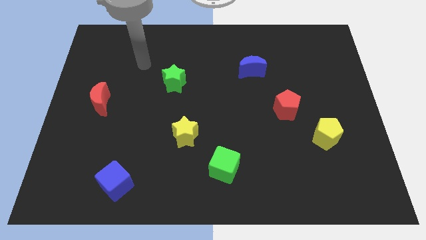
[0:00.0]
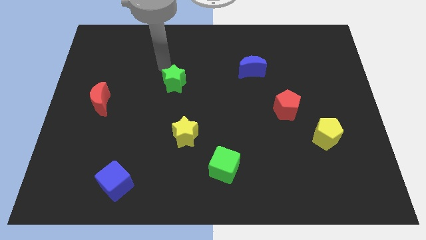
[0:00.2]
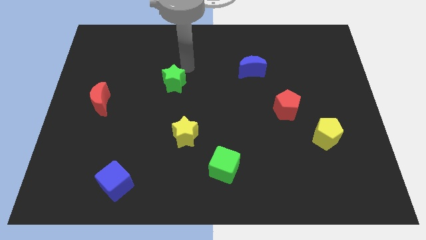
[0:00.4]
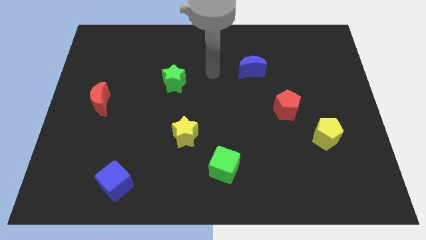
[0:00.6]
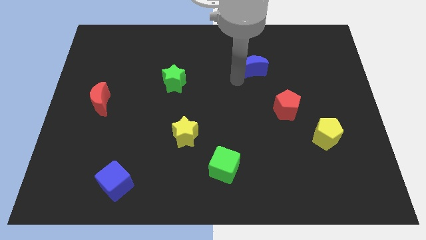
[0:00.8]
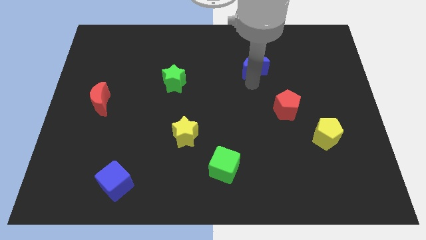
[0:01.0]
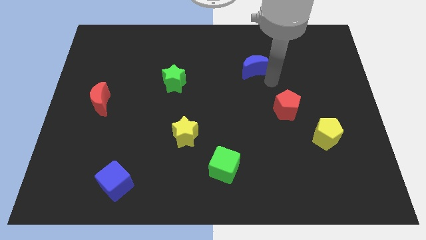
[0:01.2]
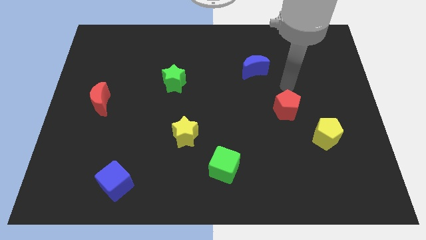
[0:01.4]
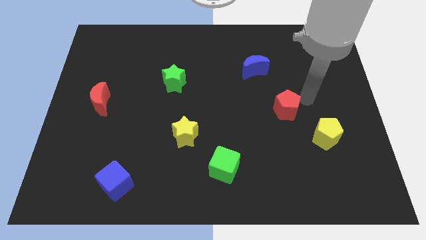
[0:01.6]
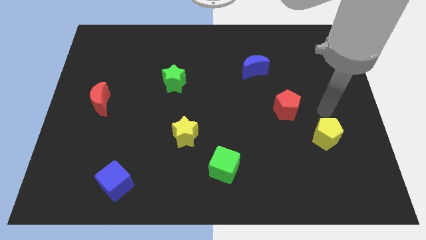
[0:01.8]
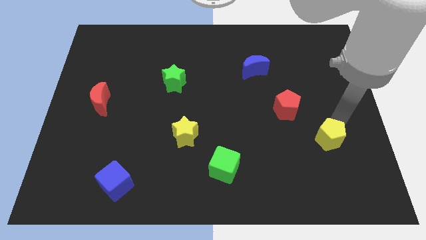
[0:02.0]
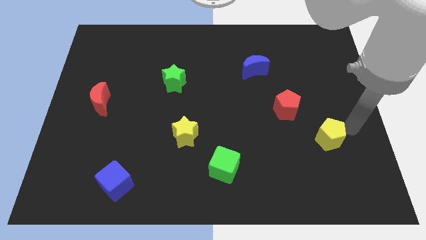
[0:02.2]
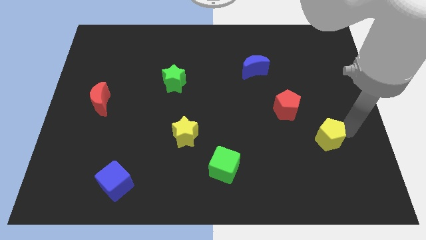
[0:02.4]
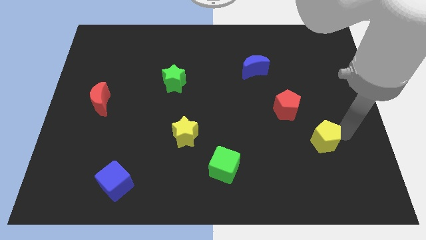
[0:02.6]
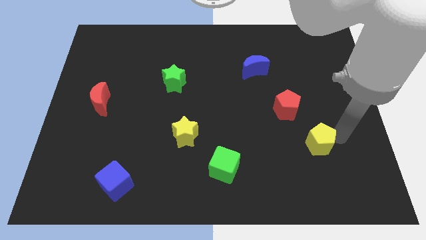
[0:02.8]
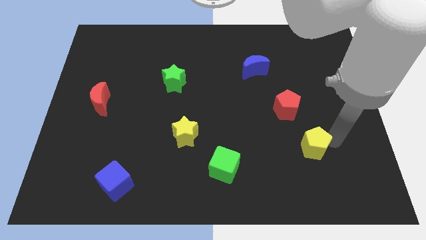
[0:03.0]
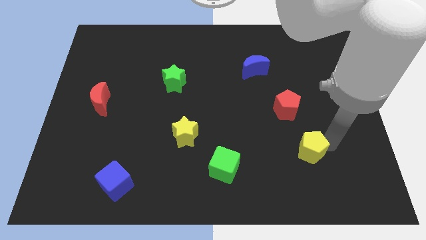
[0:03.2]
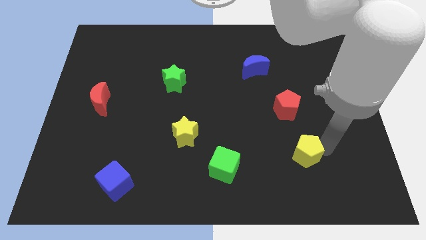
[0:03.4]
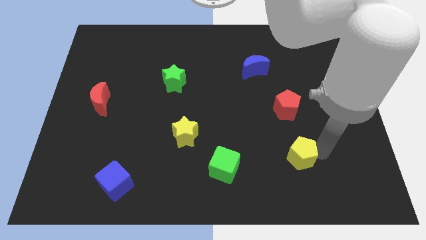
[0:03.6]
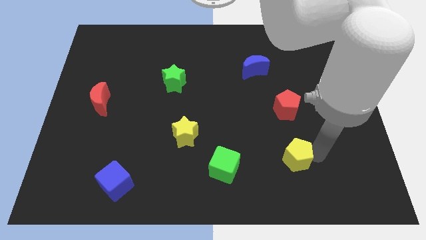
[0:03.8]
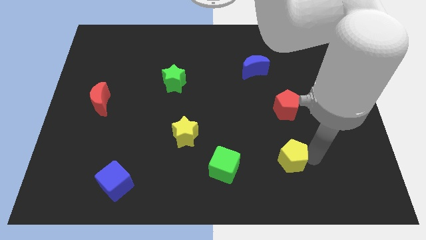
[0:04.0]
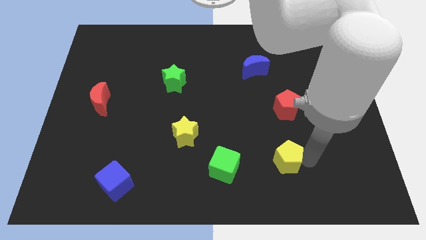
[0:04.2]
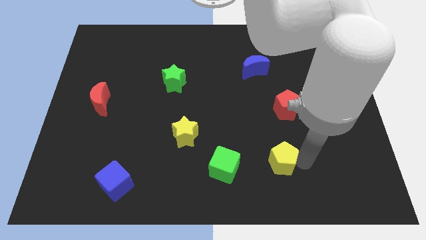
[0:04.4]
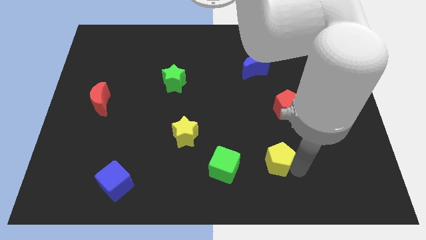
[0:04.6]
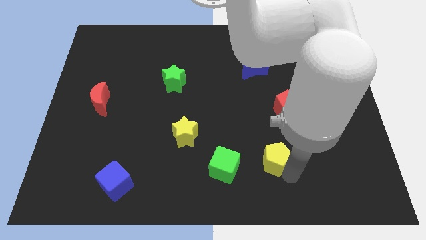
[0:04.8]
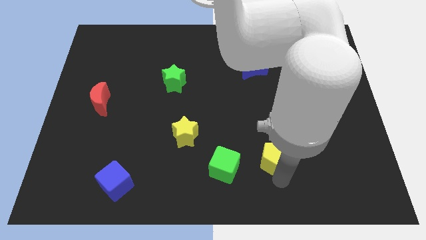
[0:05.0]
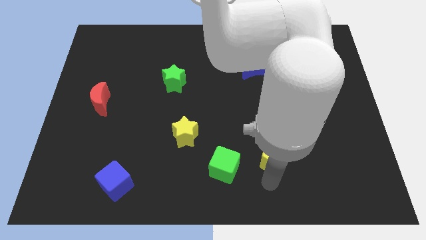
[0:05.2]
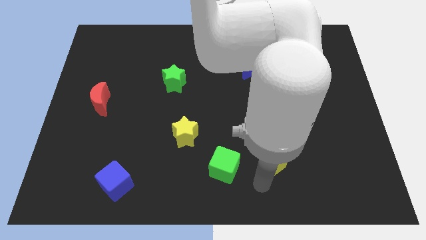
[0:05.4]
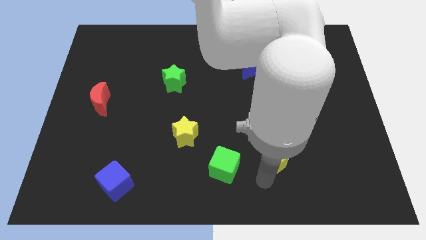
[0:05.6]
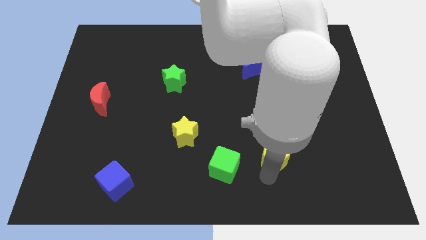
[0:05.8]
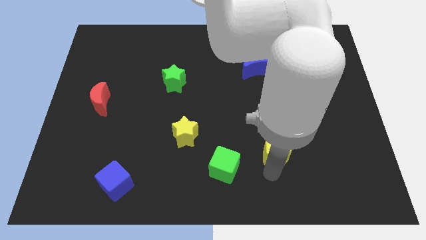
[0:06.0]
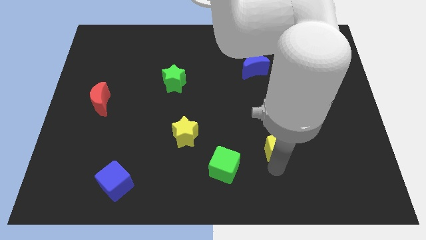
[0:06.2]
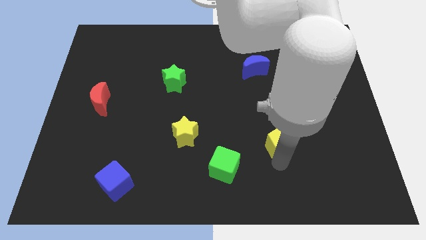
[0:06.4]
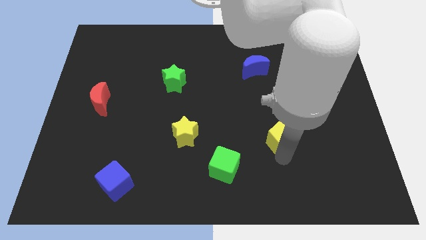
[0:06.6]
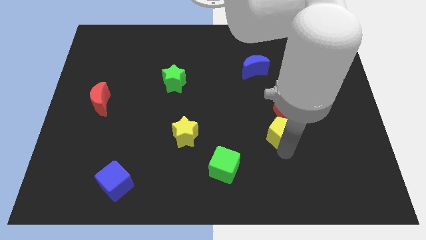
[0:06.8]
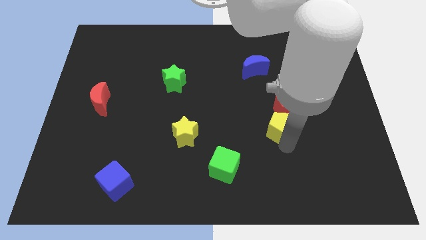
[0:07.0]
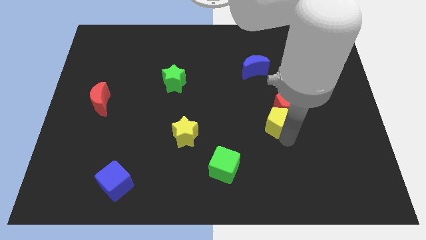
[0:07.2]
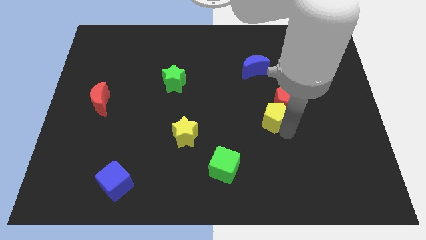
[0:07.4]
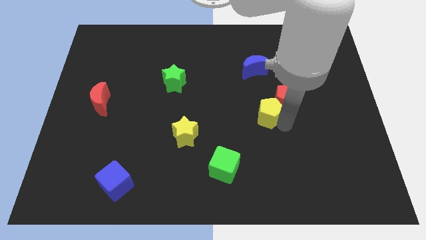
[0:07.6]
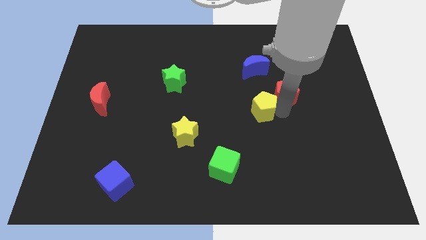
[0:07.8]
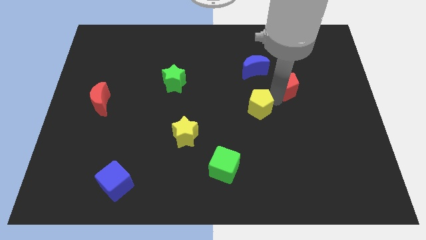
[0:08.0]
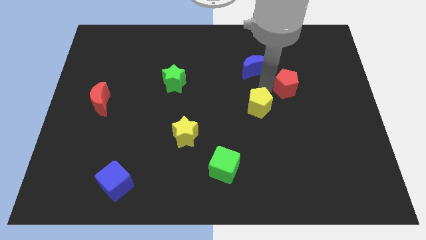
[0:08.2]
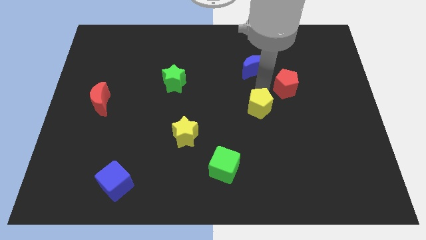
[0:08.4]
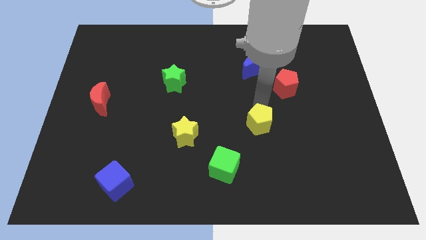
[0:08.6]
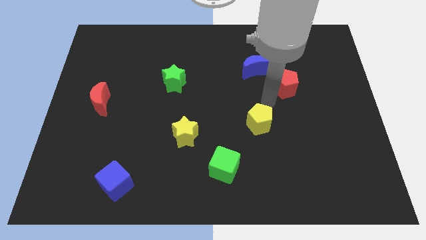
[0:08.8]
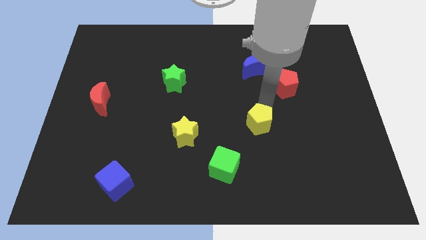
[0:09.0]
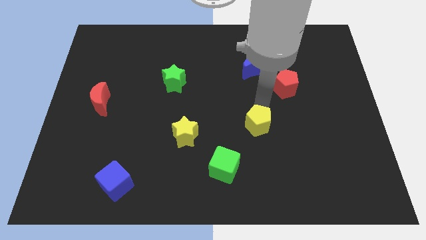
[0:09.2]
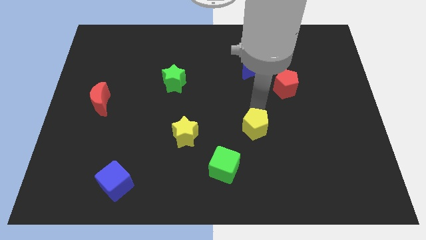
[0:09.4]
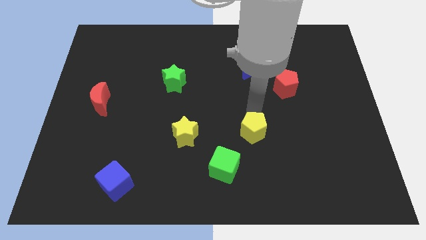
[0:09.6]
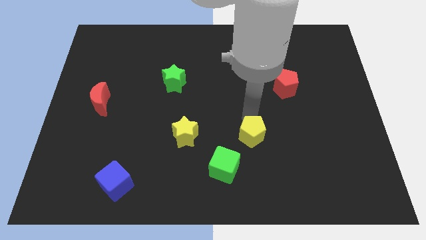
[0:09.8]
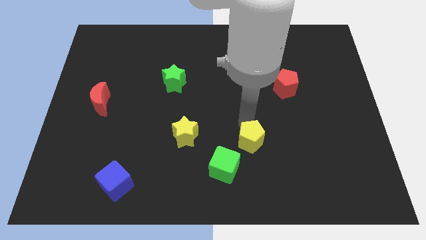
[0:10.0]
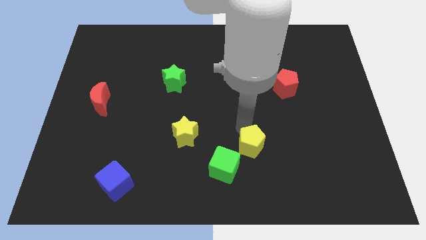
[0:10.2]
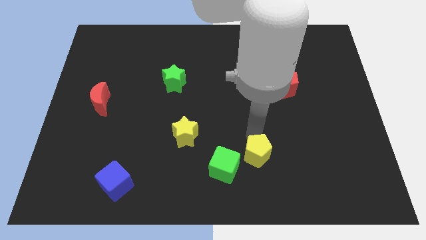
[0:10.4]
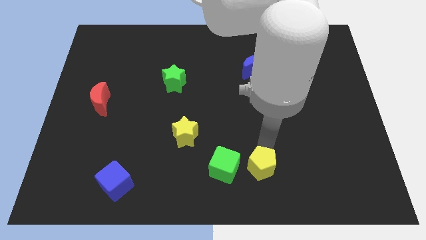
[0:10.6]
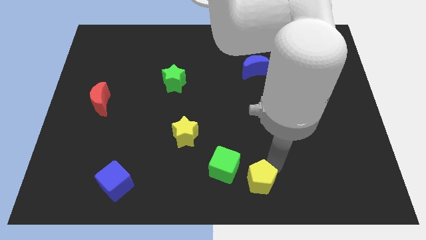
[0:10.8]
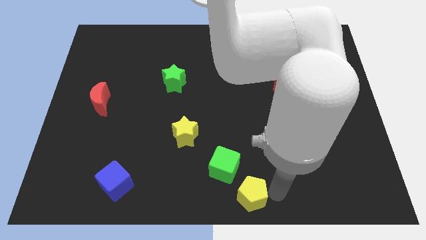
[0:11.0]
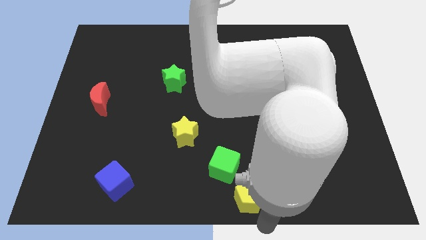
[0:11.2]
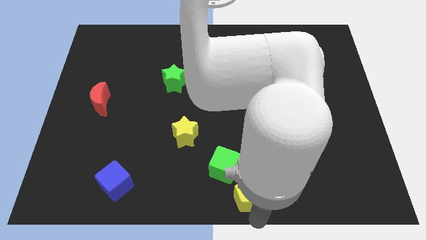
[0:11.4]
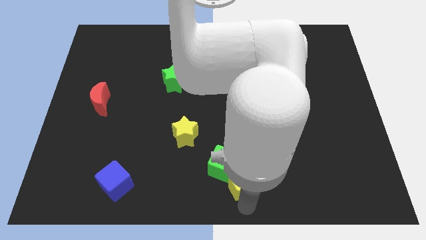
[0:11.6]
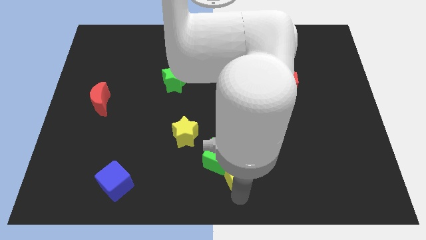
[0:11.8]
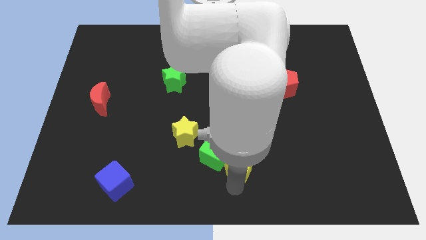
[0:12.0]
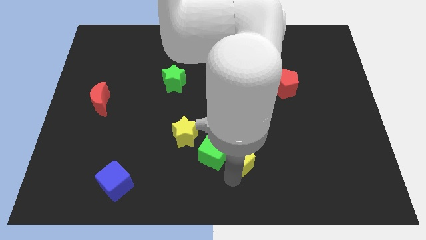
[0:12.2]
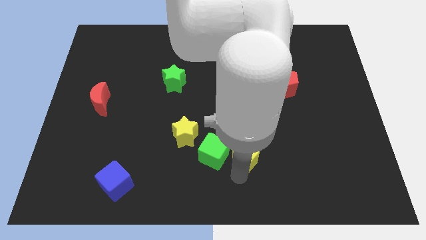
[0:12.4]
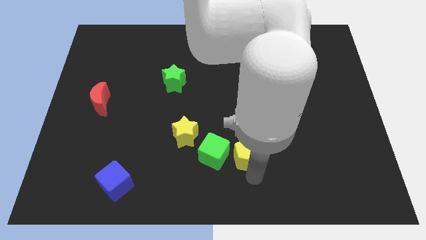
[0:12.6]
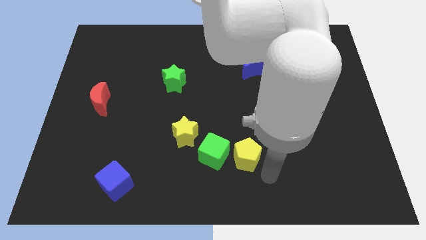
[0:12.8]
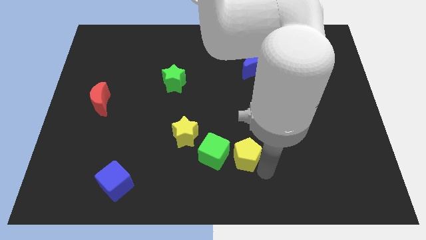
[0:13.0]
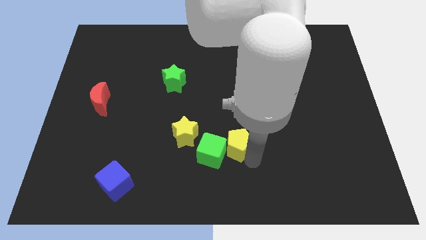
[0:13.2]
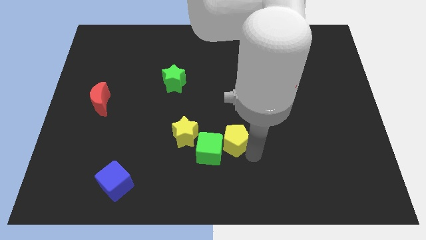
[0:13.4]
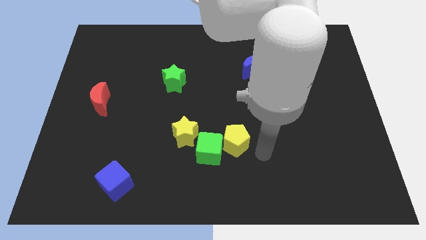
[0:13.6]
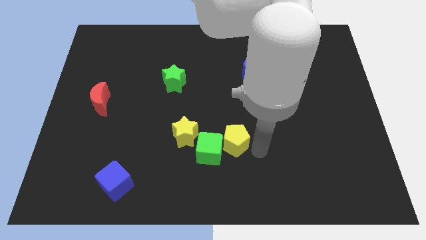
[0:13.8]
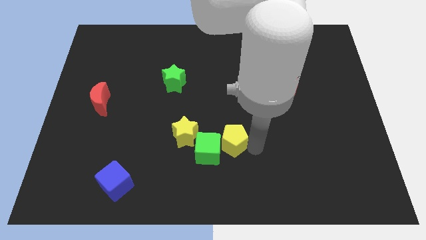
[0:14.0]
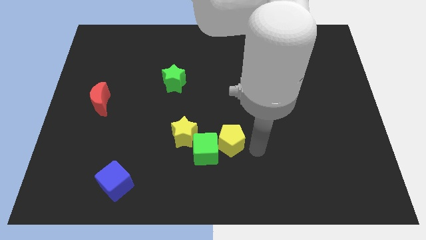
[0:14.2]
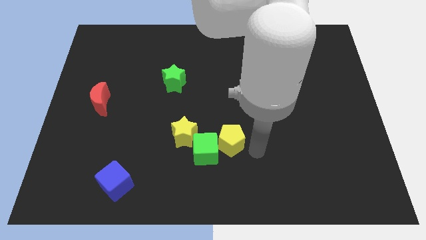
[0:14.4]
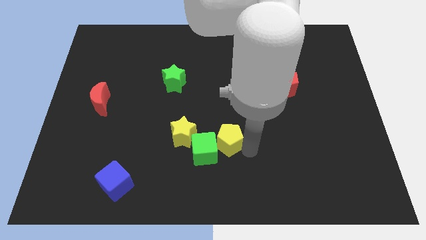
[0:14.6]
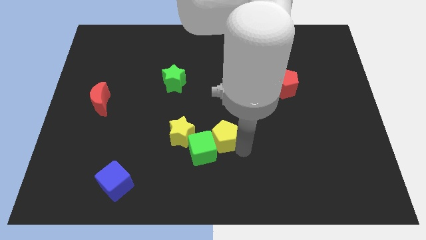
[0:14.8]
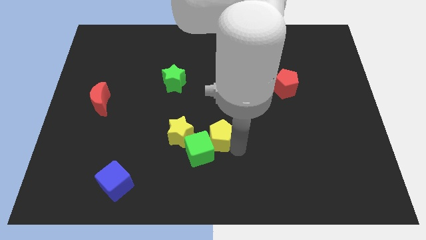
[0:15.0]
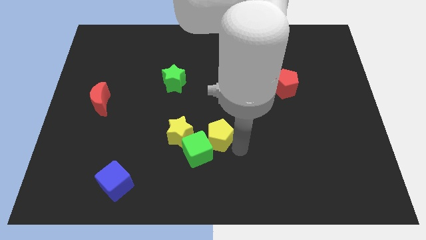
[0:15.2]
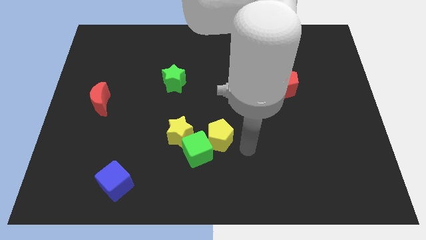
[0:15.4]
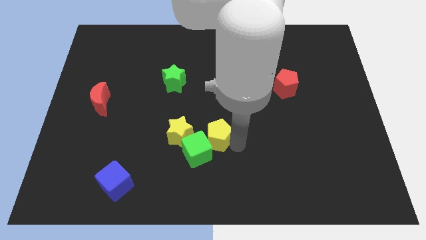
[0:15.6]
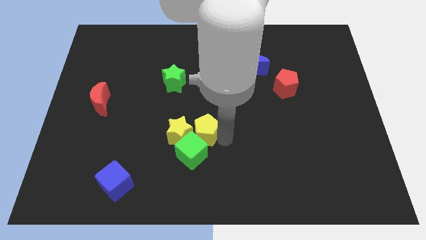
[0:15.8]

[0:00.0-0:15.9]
push the yellow pentagon to the yellow star
